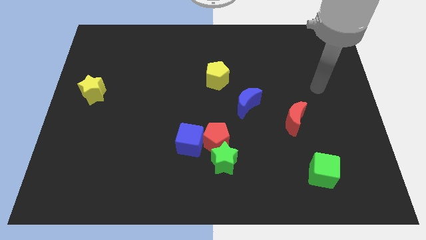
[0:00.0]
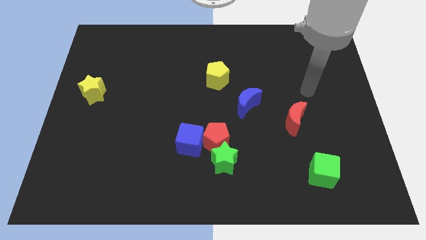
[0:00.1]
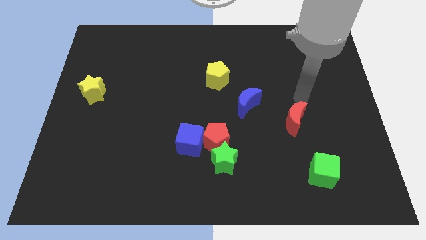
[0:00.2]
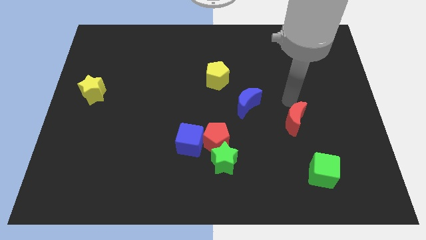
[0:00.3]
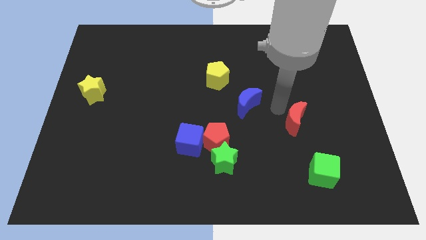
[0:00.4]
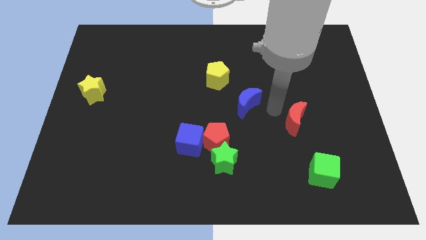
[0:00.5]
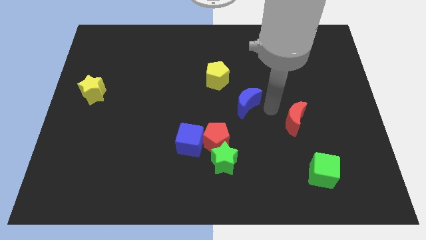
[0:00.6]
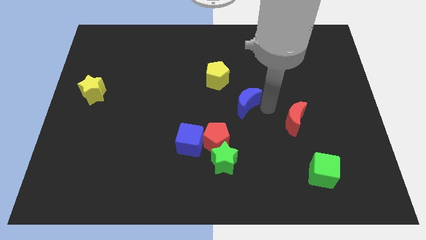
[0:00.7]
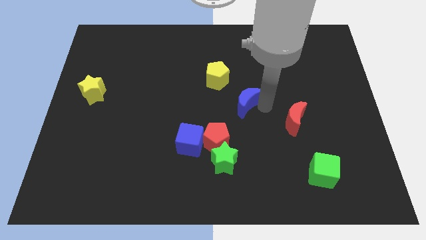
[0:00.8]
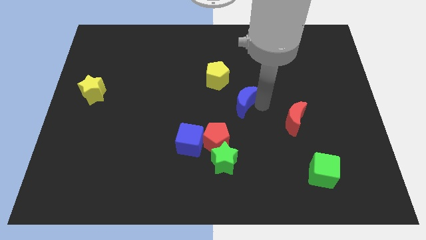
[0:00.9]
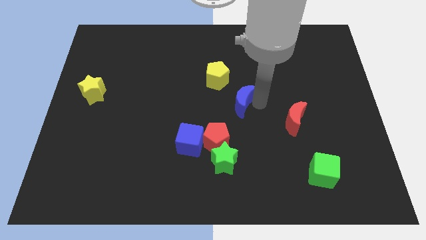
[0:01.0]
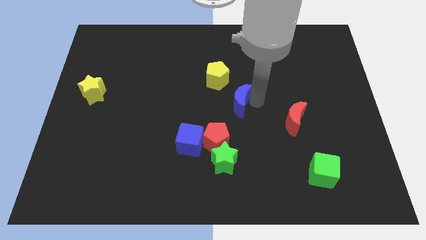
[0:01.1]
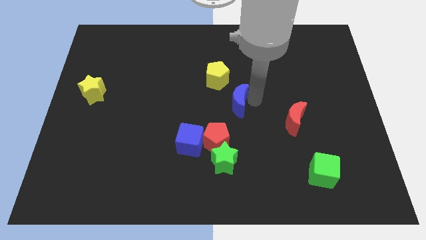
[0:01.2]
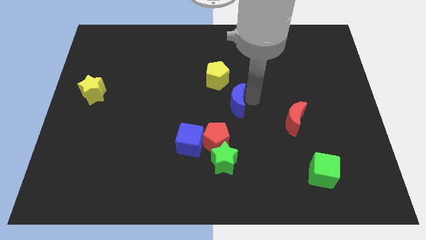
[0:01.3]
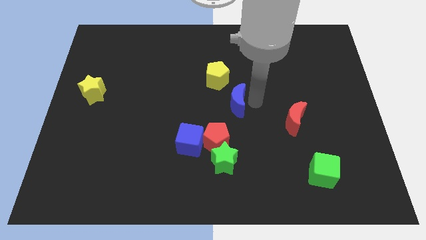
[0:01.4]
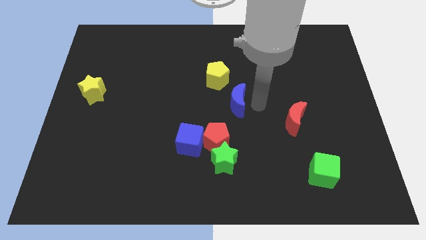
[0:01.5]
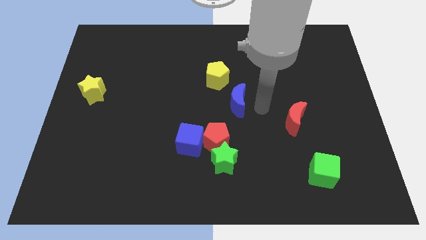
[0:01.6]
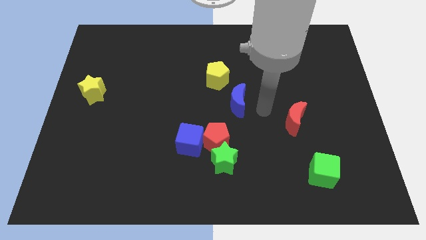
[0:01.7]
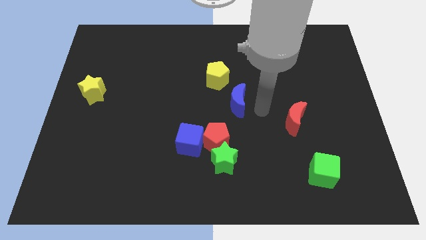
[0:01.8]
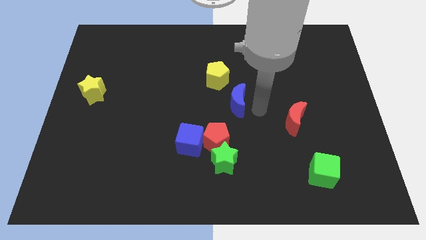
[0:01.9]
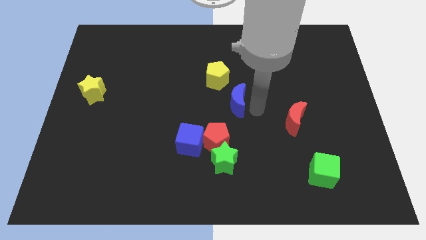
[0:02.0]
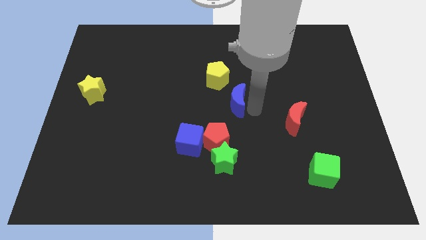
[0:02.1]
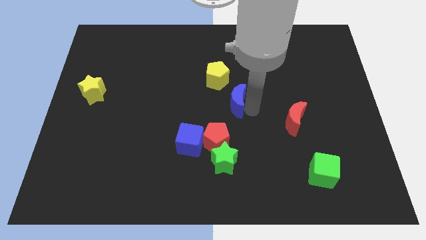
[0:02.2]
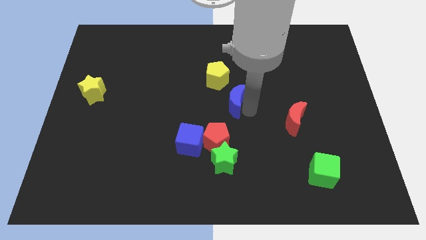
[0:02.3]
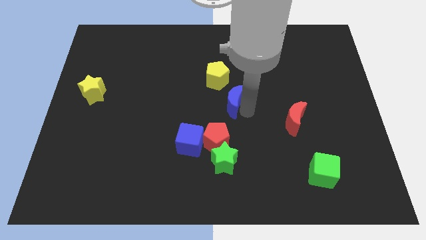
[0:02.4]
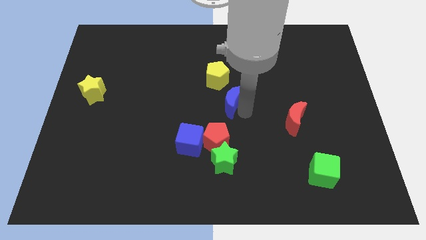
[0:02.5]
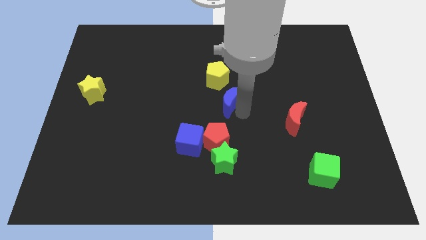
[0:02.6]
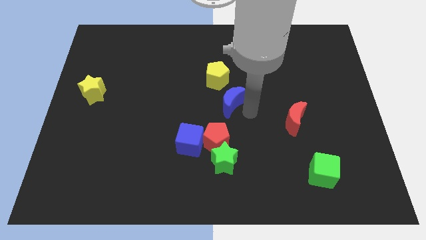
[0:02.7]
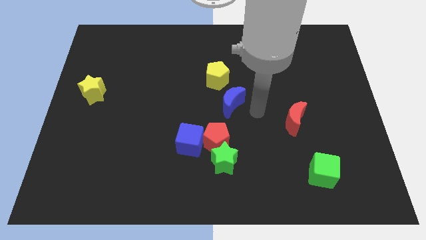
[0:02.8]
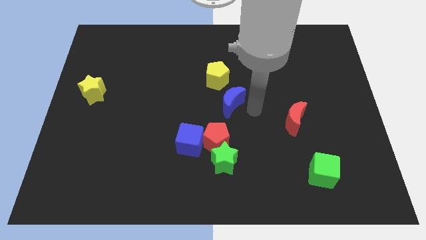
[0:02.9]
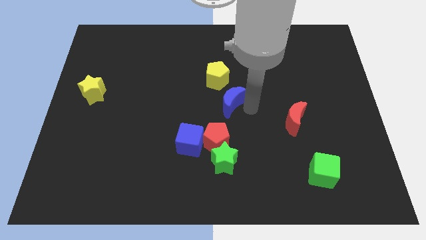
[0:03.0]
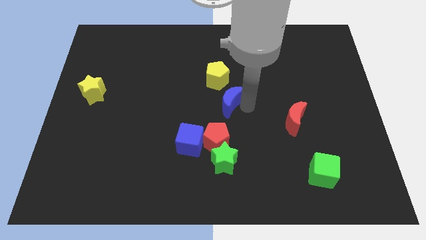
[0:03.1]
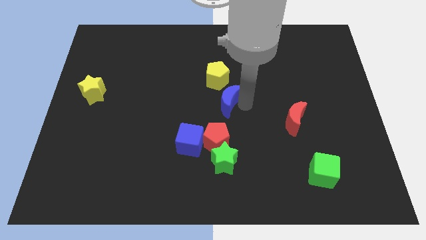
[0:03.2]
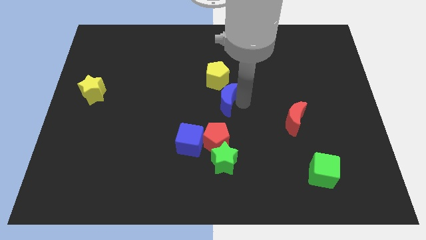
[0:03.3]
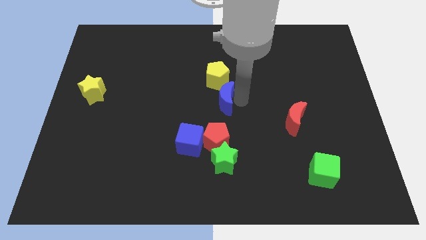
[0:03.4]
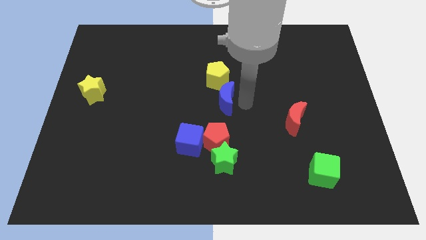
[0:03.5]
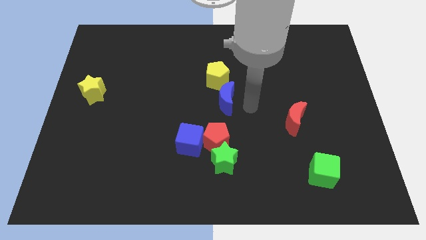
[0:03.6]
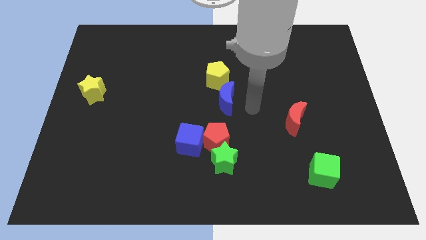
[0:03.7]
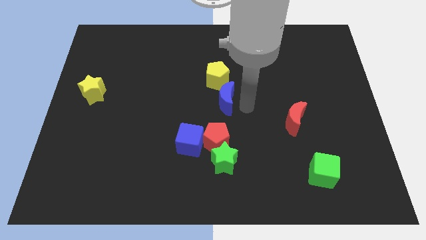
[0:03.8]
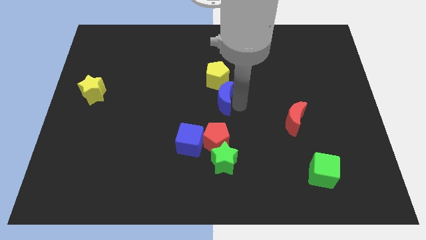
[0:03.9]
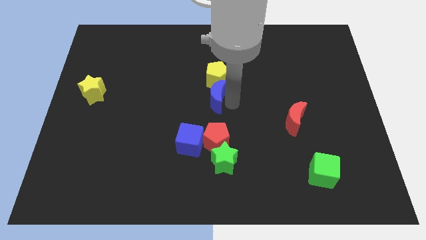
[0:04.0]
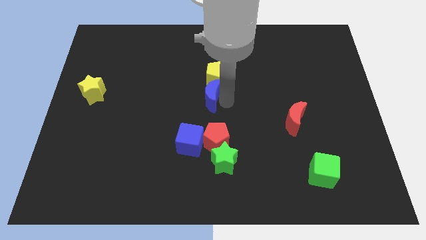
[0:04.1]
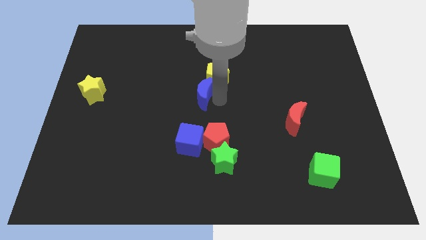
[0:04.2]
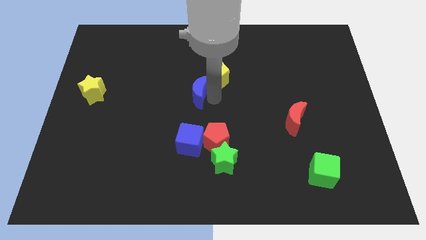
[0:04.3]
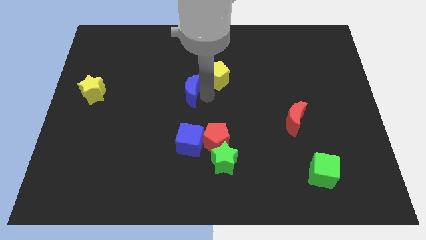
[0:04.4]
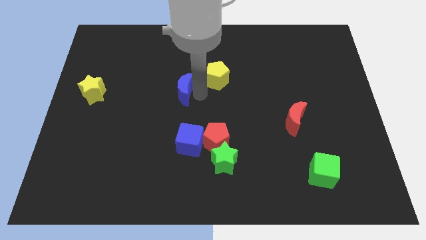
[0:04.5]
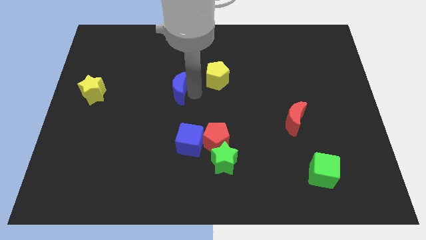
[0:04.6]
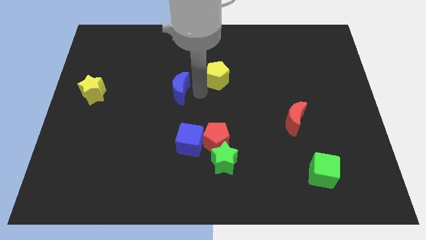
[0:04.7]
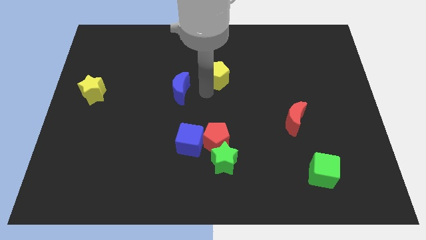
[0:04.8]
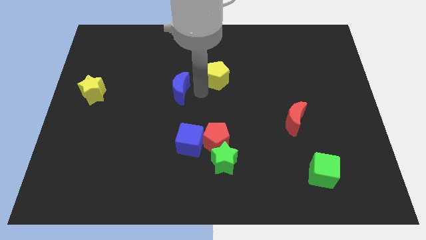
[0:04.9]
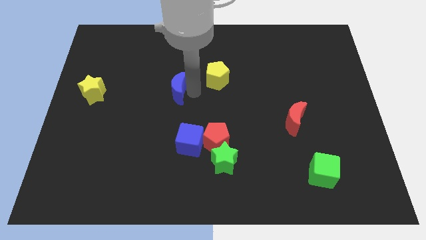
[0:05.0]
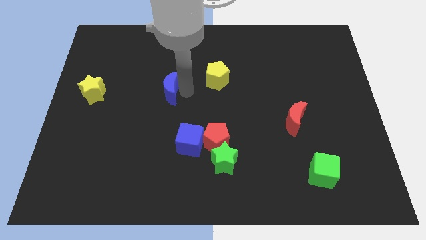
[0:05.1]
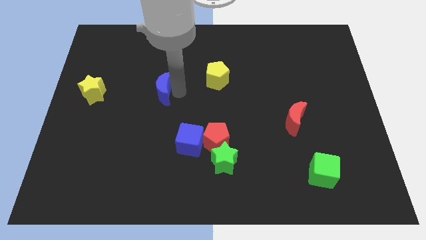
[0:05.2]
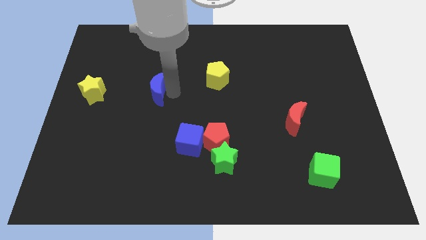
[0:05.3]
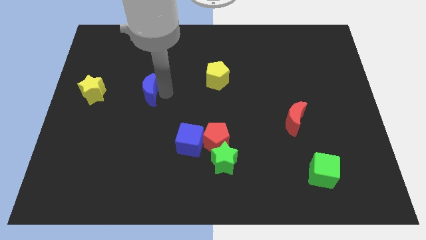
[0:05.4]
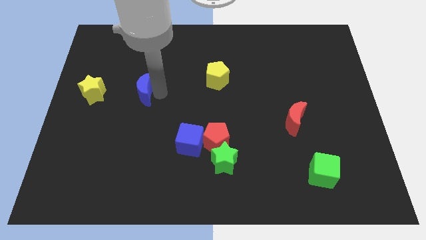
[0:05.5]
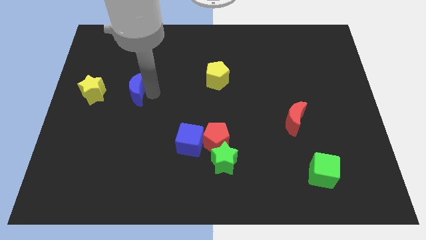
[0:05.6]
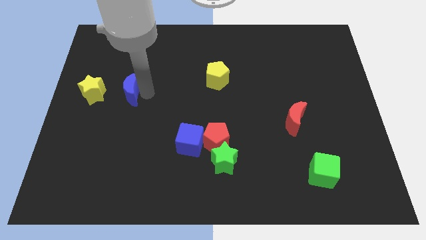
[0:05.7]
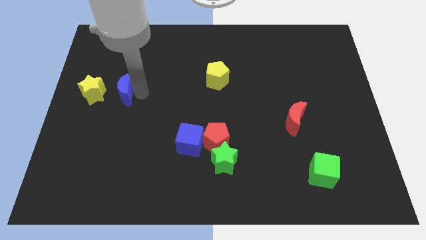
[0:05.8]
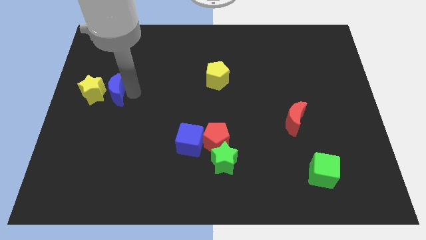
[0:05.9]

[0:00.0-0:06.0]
move the blue moon to the yellow star

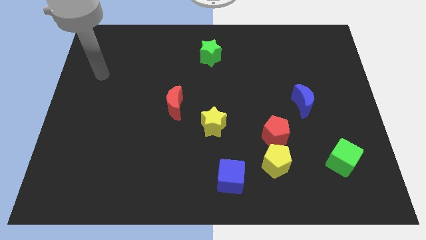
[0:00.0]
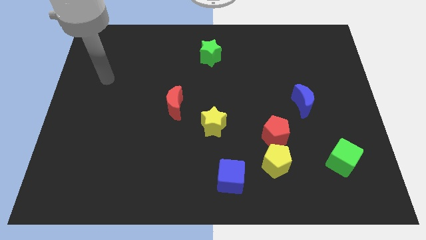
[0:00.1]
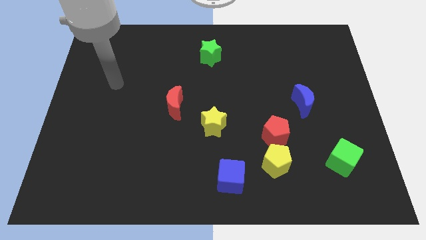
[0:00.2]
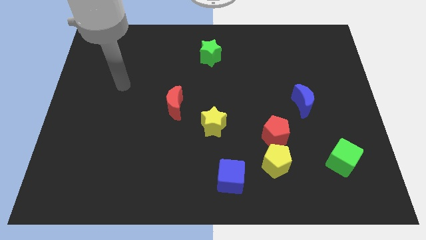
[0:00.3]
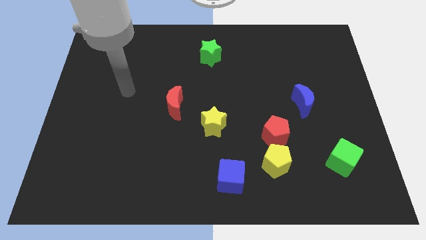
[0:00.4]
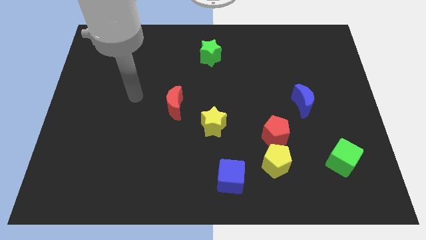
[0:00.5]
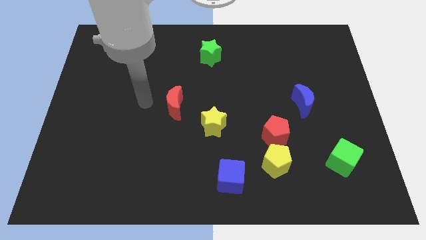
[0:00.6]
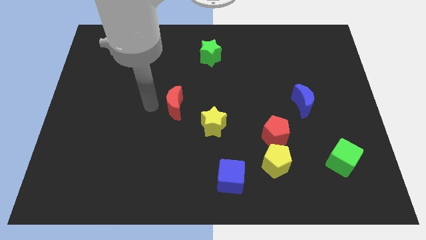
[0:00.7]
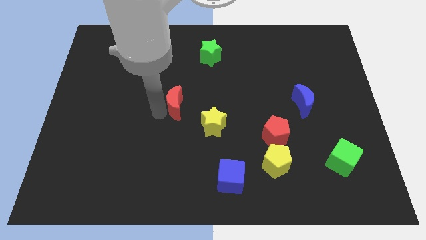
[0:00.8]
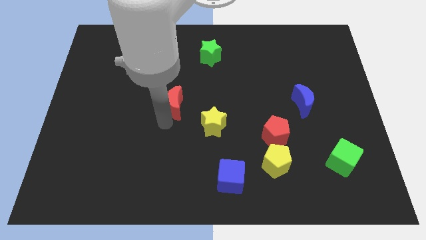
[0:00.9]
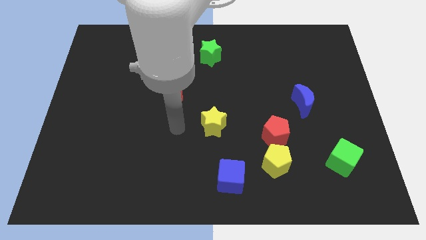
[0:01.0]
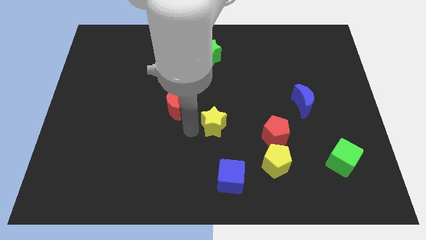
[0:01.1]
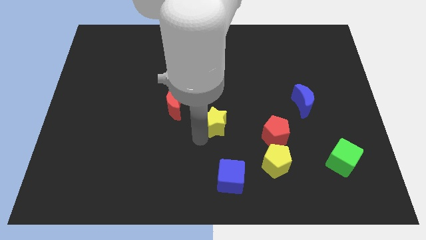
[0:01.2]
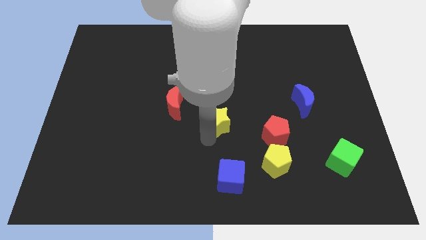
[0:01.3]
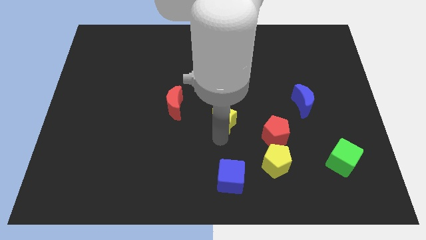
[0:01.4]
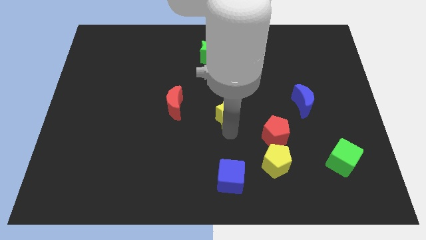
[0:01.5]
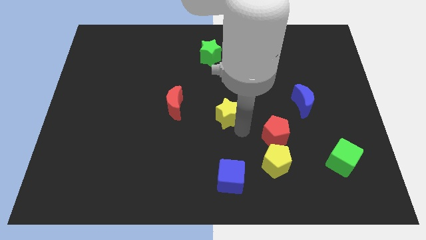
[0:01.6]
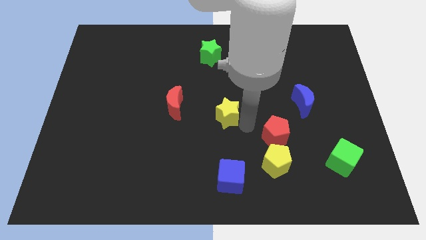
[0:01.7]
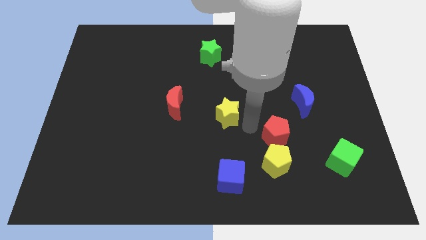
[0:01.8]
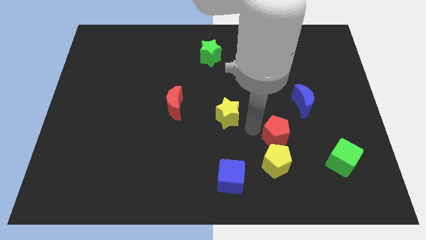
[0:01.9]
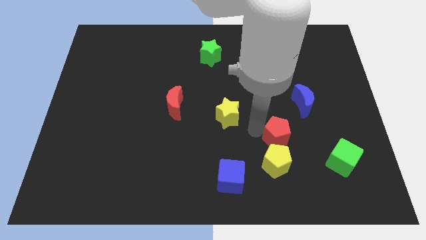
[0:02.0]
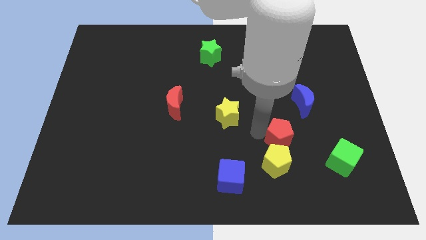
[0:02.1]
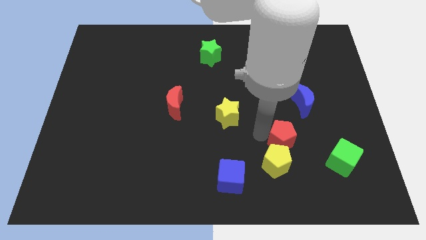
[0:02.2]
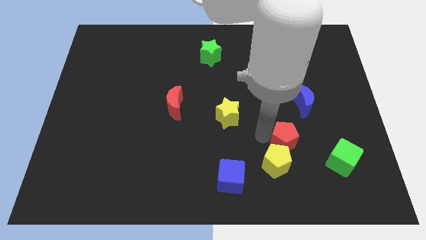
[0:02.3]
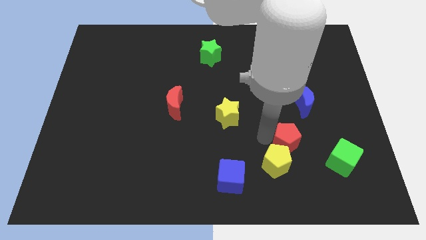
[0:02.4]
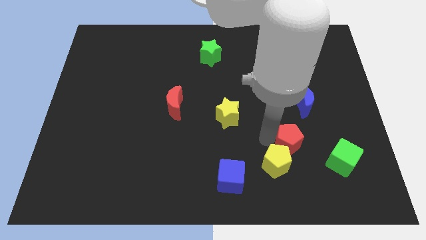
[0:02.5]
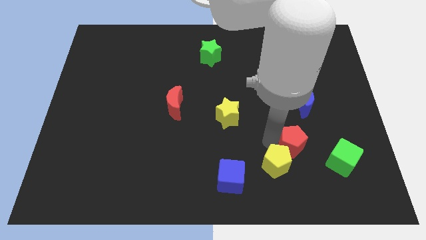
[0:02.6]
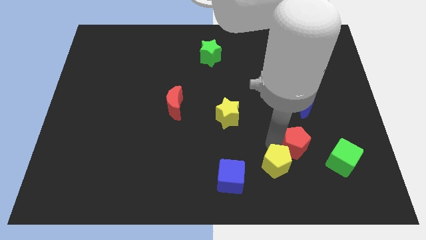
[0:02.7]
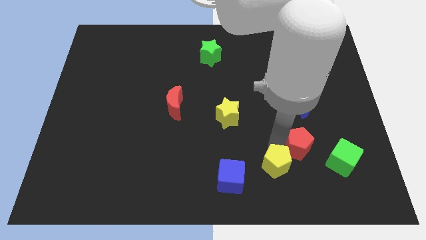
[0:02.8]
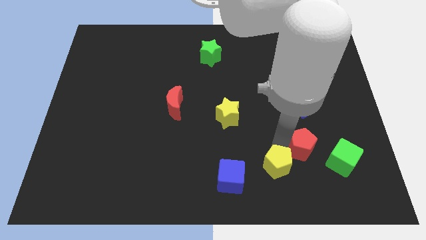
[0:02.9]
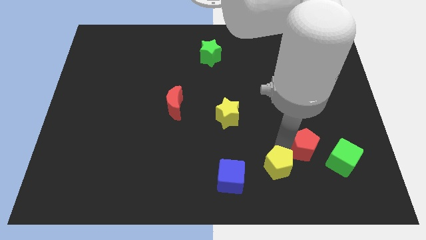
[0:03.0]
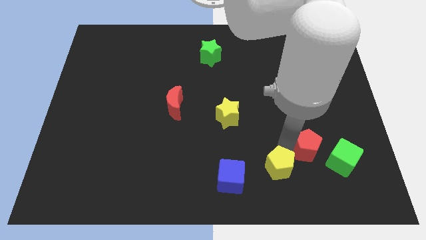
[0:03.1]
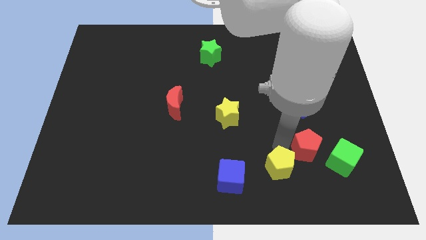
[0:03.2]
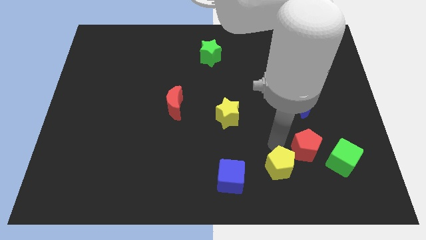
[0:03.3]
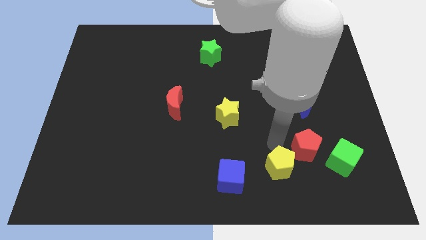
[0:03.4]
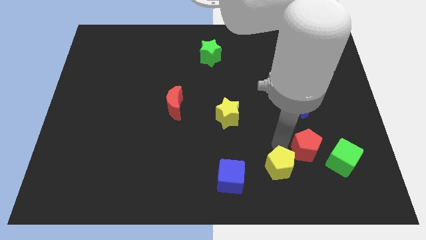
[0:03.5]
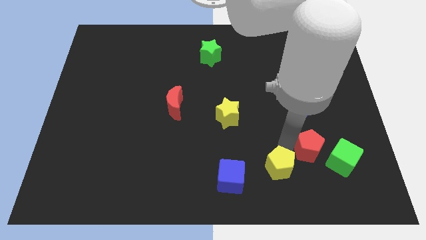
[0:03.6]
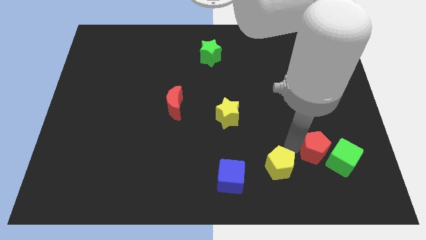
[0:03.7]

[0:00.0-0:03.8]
push the red pentagon close to the green cube
